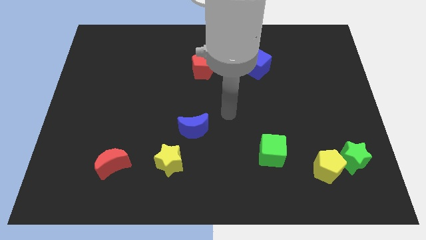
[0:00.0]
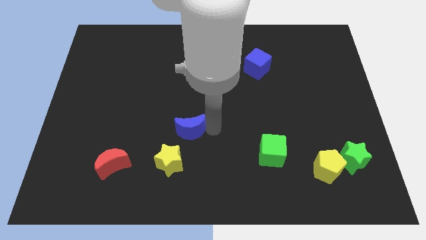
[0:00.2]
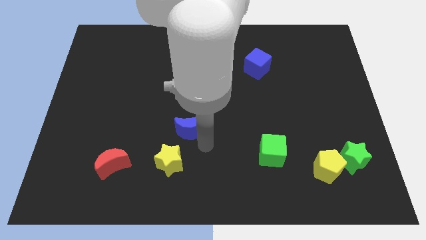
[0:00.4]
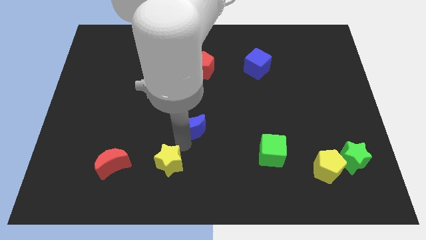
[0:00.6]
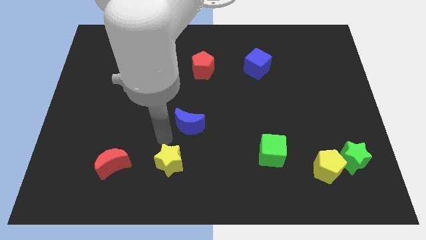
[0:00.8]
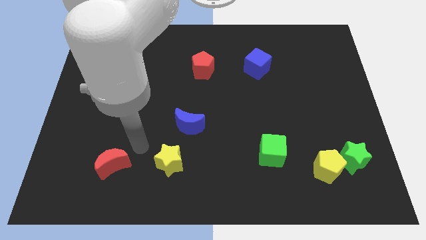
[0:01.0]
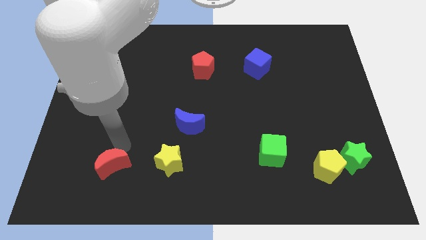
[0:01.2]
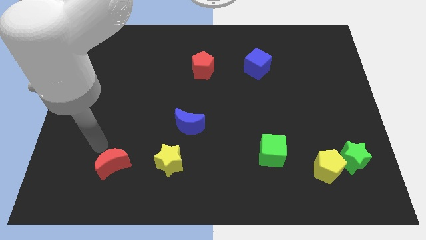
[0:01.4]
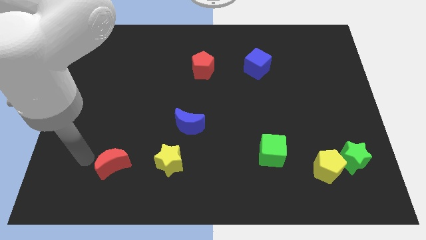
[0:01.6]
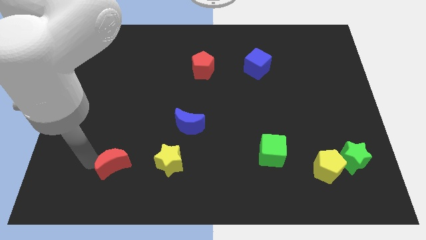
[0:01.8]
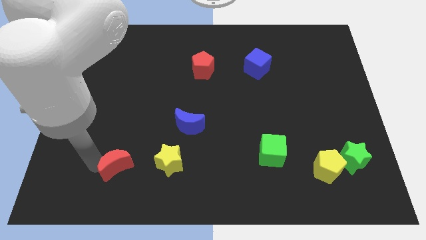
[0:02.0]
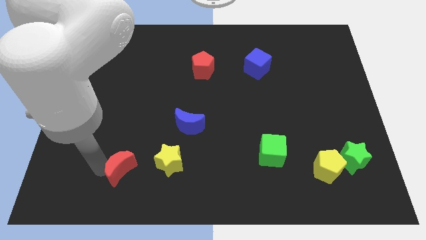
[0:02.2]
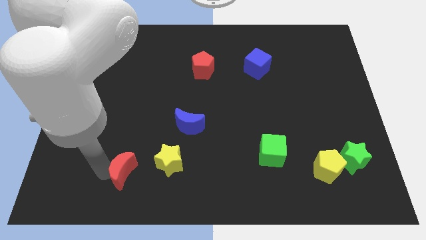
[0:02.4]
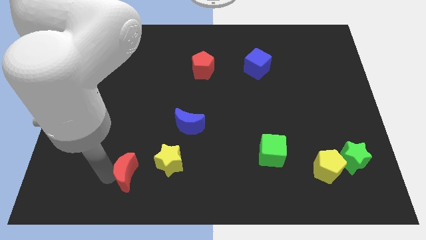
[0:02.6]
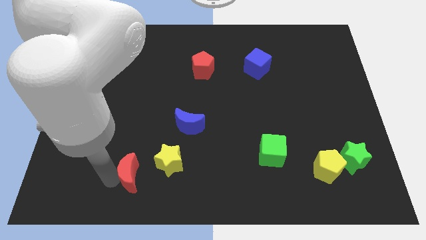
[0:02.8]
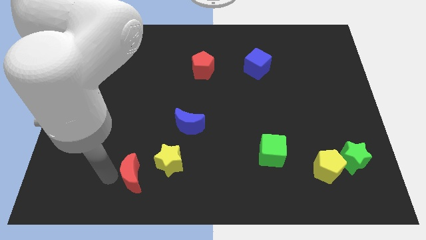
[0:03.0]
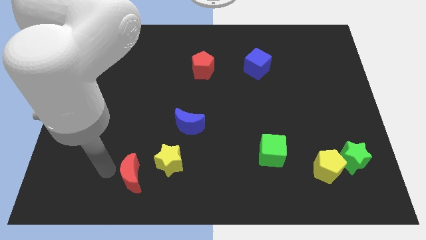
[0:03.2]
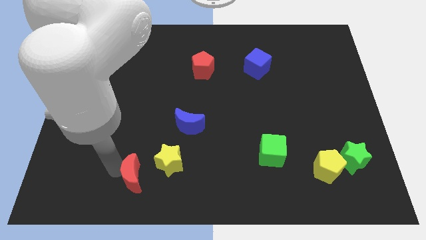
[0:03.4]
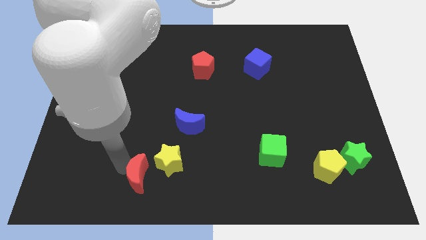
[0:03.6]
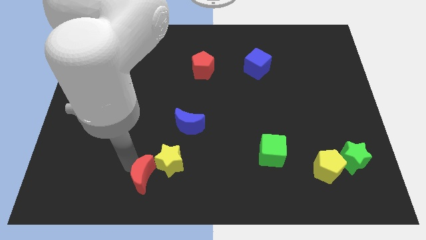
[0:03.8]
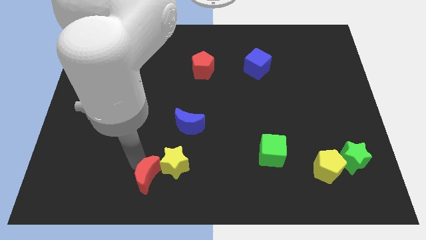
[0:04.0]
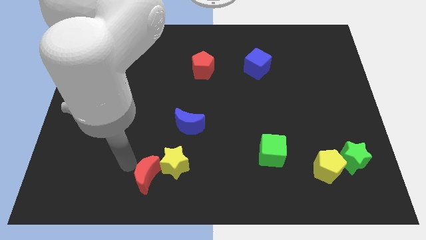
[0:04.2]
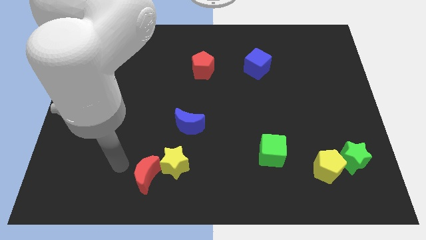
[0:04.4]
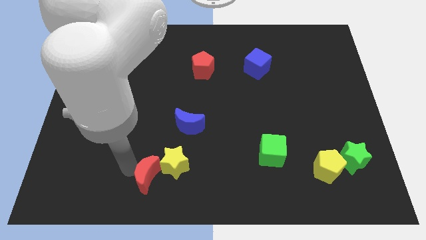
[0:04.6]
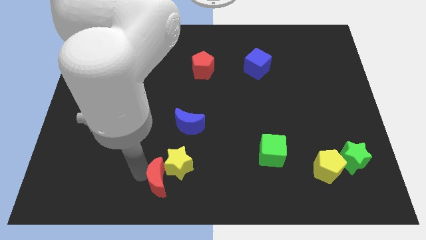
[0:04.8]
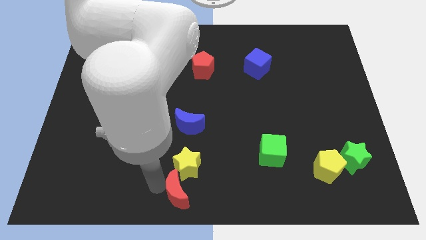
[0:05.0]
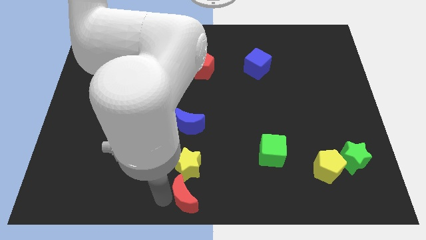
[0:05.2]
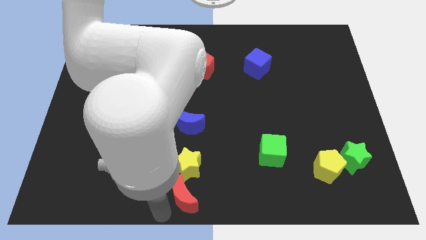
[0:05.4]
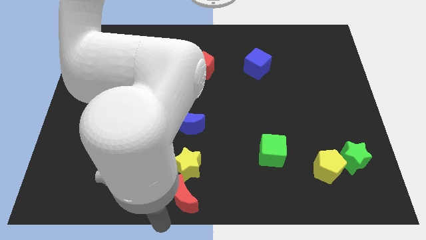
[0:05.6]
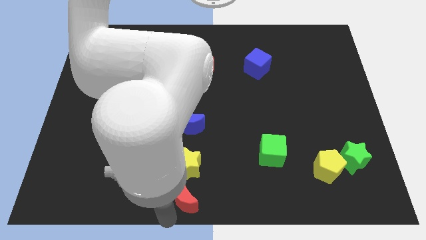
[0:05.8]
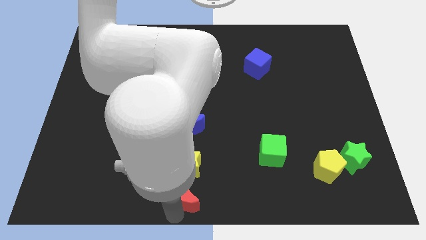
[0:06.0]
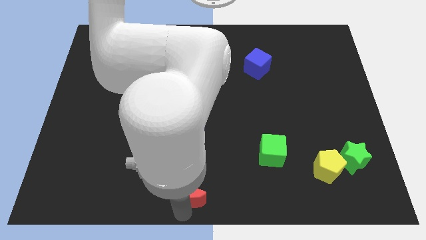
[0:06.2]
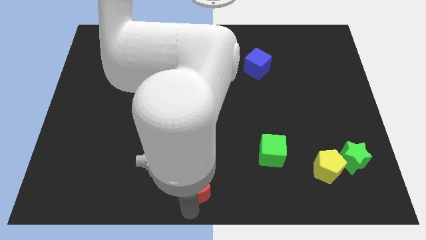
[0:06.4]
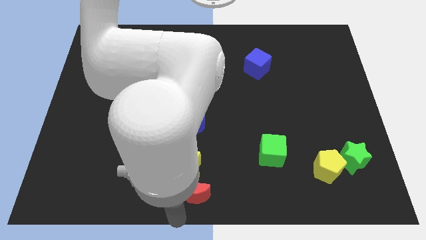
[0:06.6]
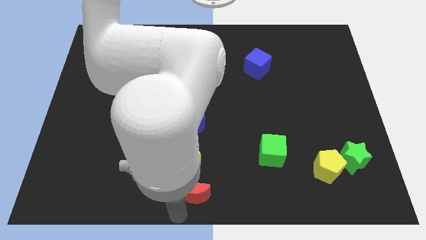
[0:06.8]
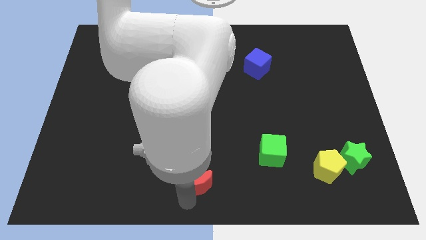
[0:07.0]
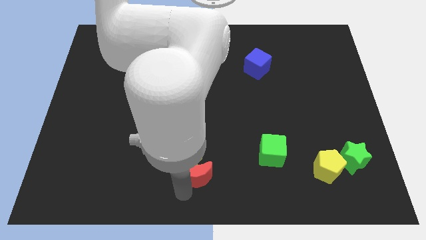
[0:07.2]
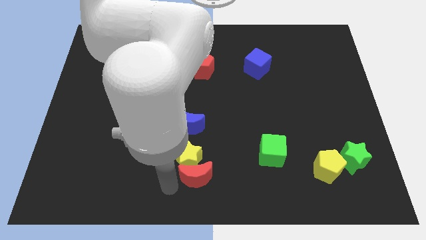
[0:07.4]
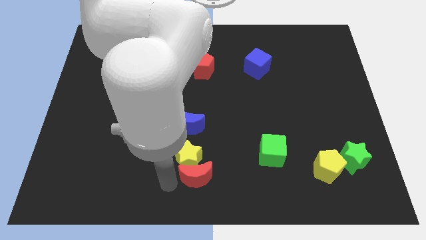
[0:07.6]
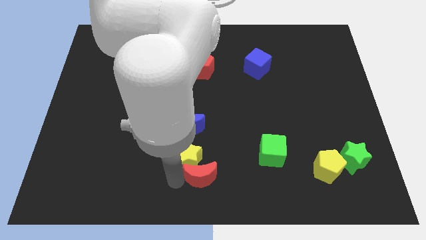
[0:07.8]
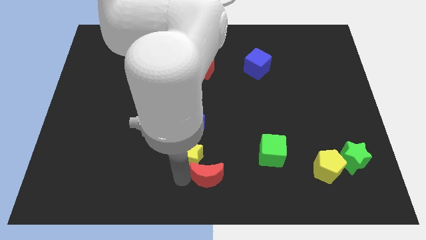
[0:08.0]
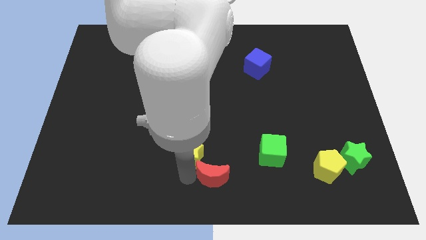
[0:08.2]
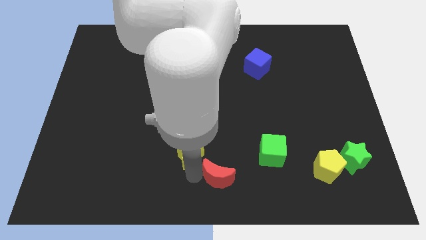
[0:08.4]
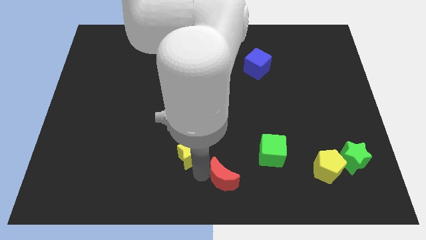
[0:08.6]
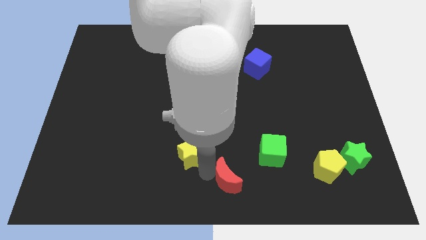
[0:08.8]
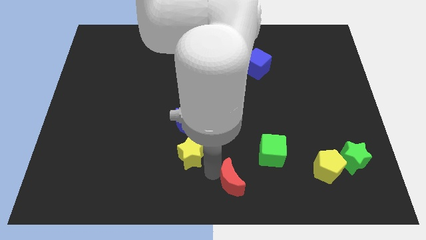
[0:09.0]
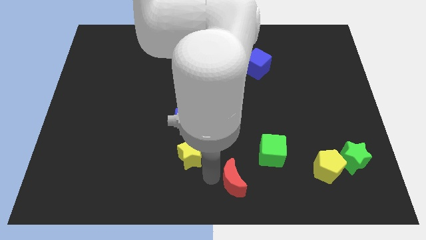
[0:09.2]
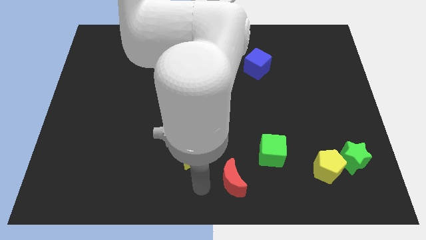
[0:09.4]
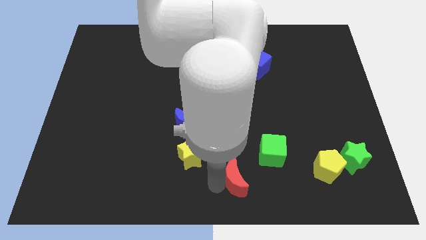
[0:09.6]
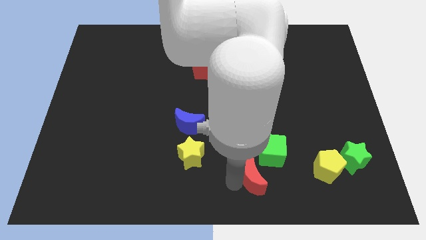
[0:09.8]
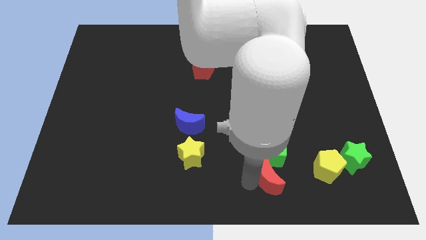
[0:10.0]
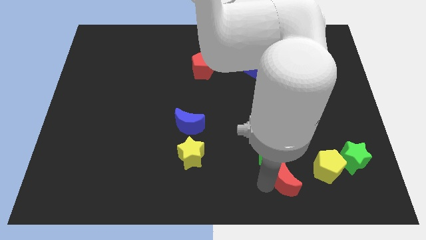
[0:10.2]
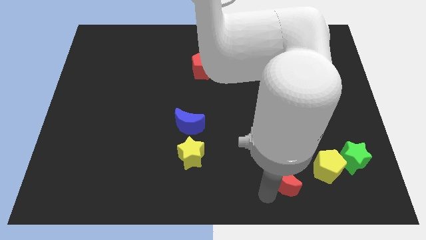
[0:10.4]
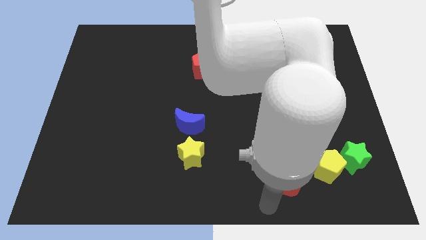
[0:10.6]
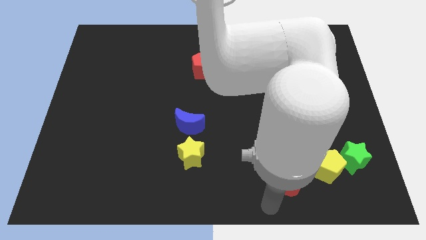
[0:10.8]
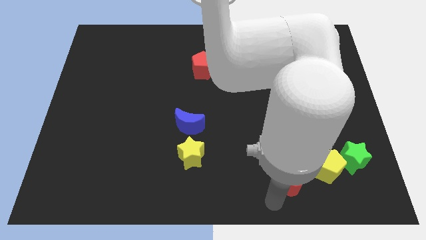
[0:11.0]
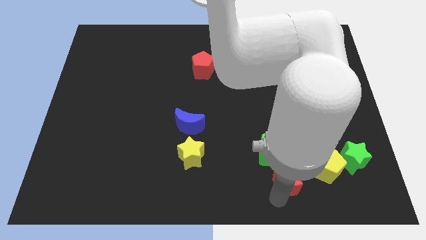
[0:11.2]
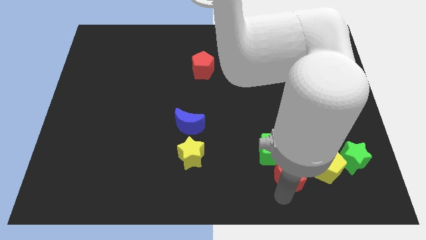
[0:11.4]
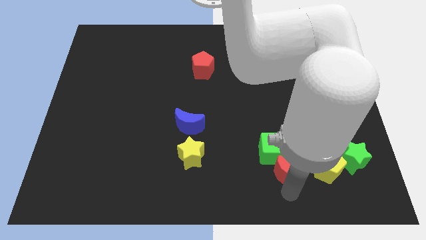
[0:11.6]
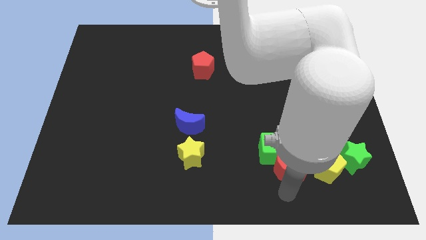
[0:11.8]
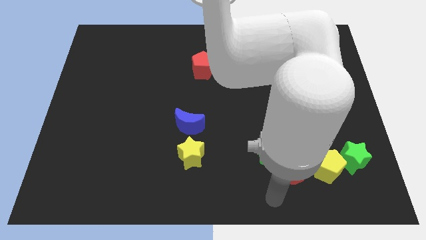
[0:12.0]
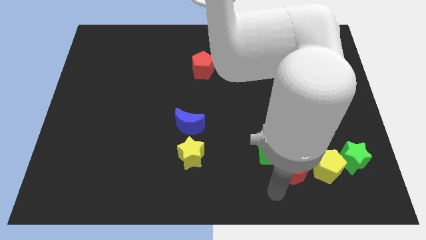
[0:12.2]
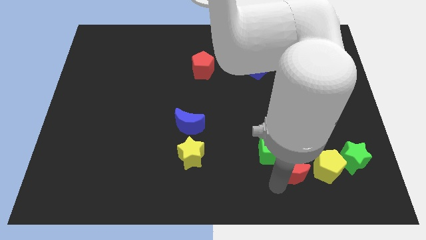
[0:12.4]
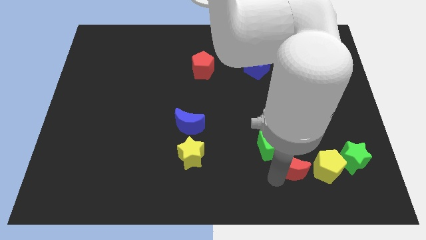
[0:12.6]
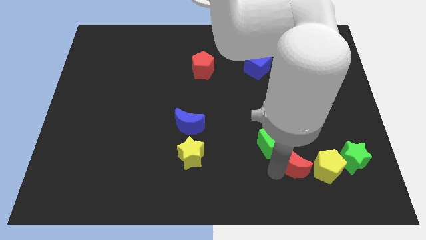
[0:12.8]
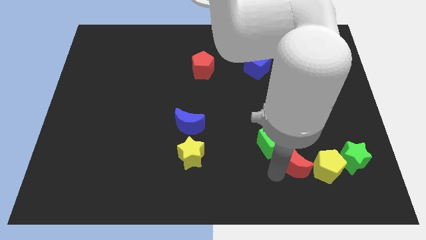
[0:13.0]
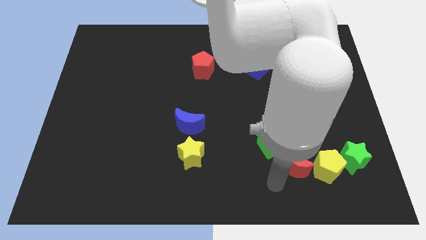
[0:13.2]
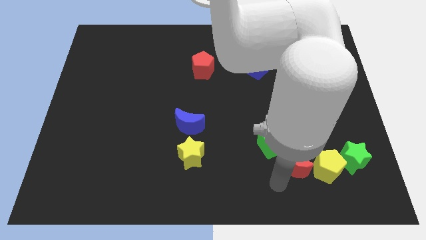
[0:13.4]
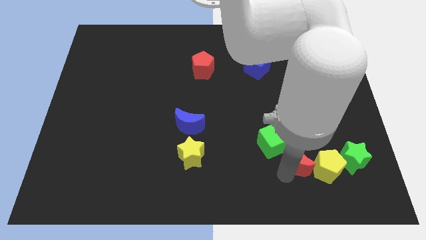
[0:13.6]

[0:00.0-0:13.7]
slide the red moon right of the green cube
